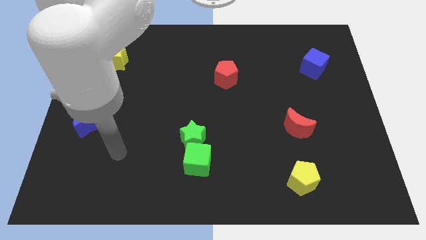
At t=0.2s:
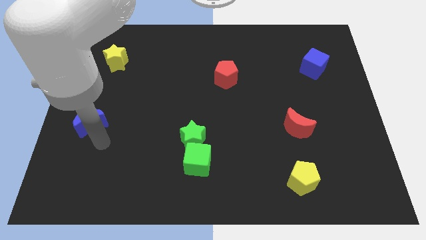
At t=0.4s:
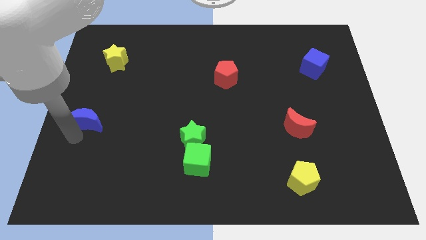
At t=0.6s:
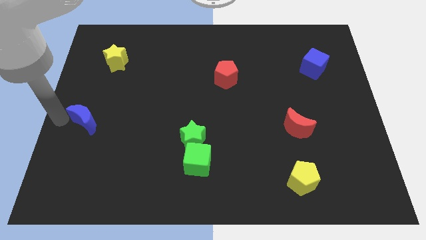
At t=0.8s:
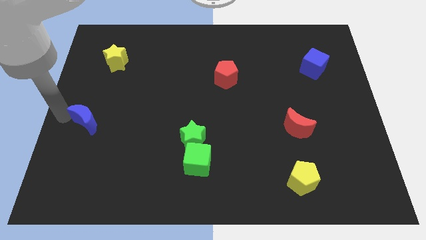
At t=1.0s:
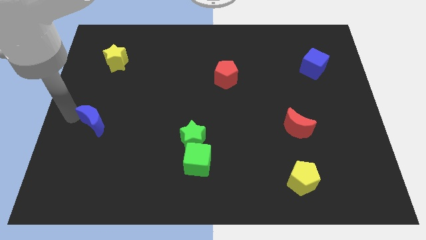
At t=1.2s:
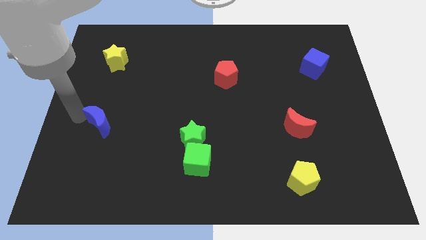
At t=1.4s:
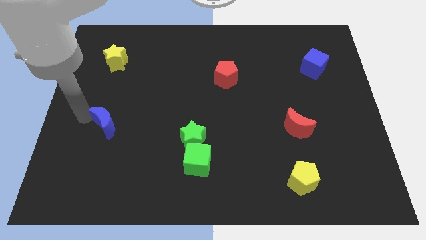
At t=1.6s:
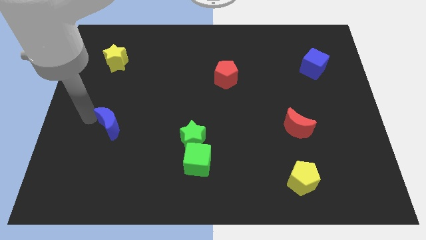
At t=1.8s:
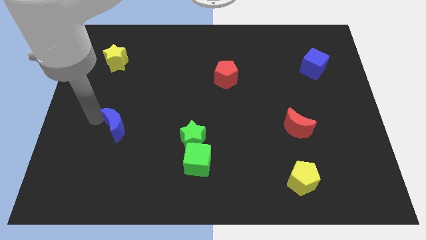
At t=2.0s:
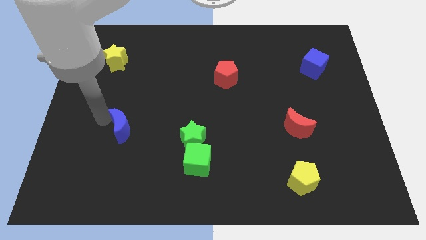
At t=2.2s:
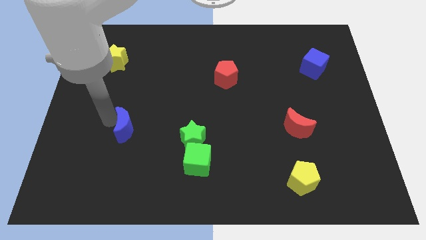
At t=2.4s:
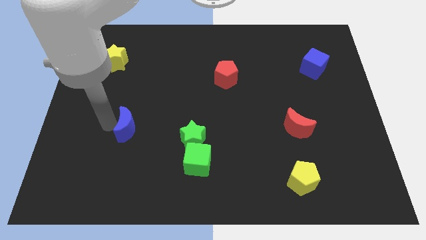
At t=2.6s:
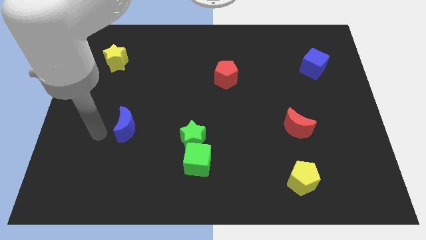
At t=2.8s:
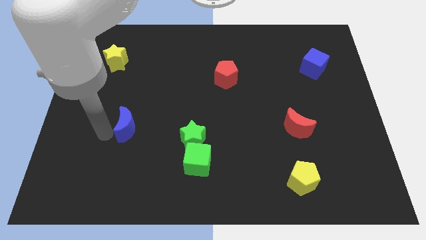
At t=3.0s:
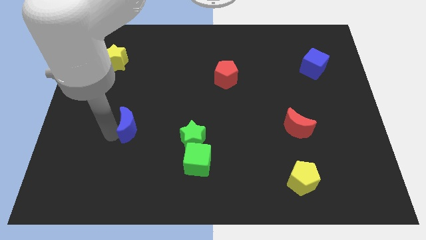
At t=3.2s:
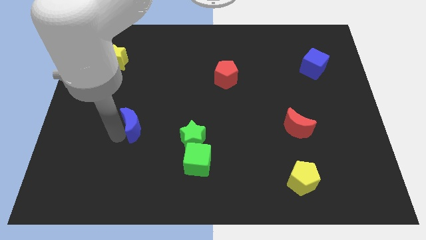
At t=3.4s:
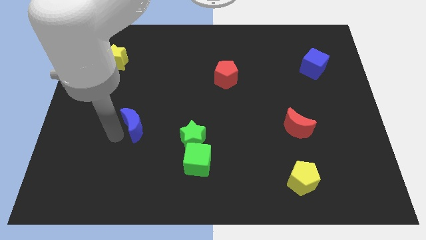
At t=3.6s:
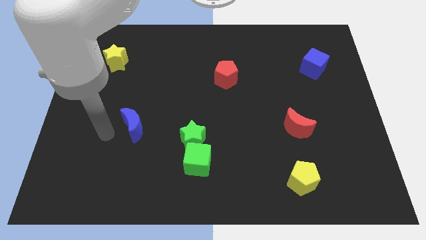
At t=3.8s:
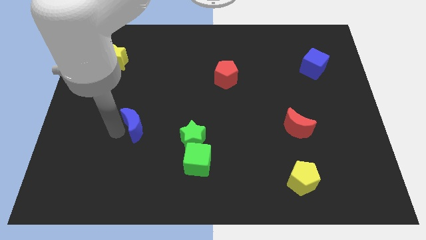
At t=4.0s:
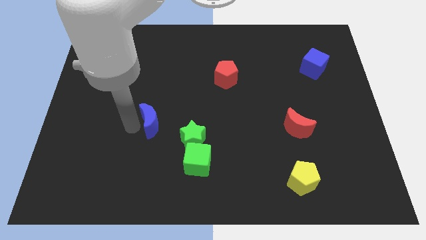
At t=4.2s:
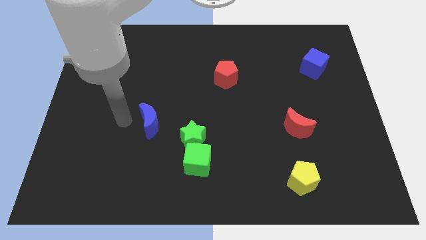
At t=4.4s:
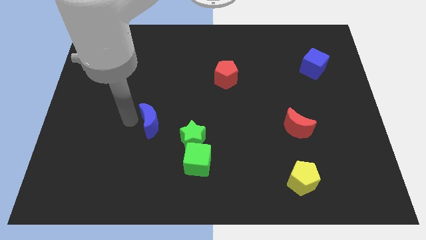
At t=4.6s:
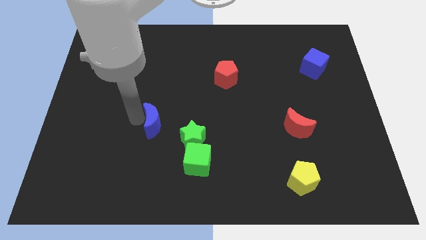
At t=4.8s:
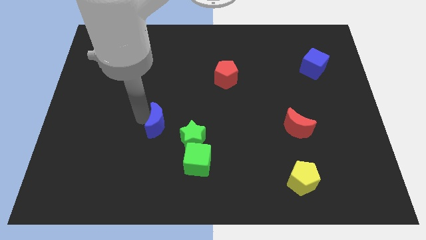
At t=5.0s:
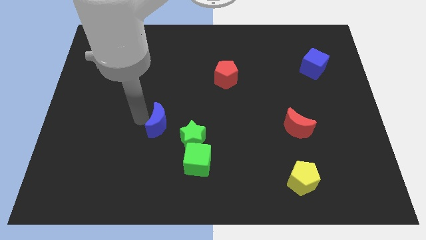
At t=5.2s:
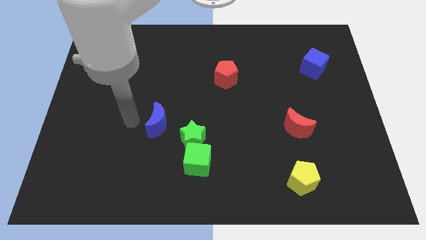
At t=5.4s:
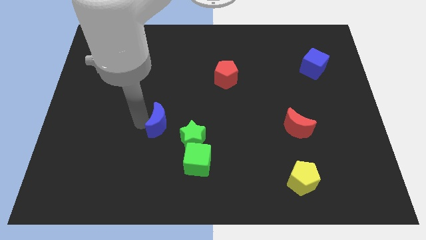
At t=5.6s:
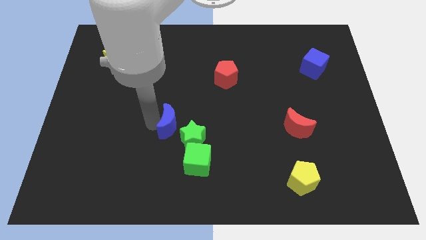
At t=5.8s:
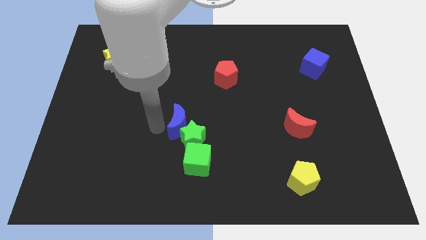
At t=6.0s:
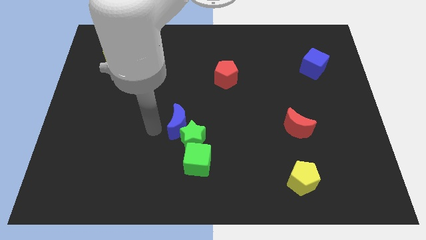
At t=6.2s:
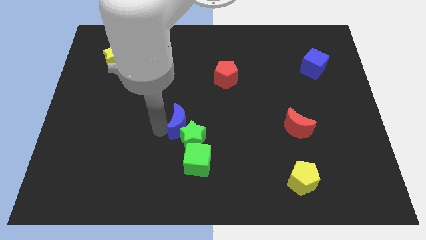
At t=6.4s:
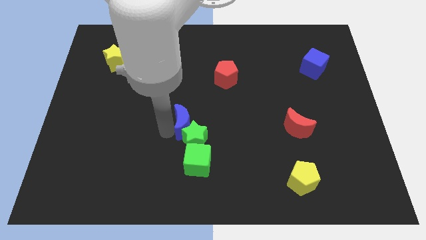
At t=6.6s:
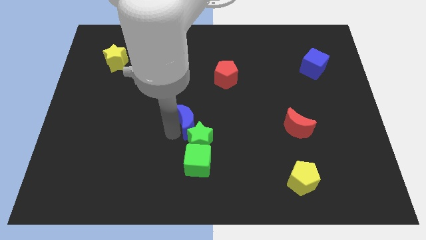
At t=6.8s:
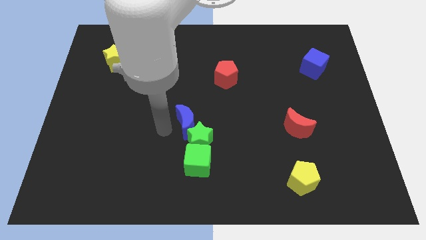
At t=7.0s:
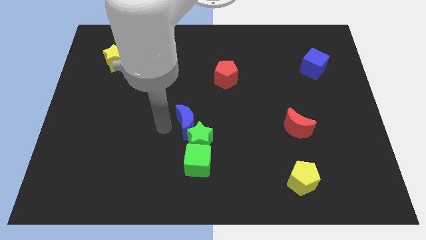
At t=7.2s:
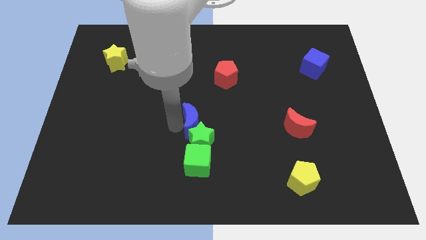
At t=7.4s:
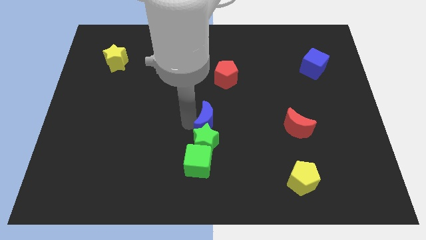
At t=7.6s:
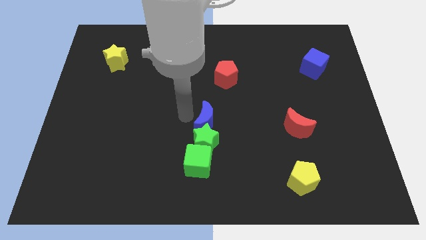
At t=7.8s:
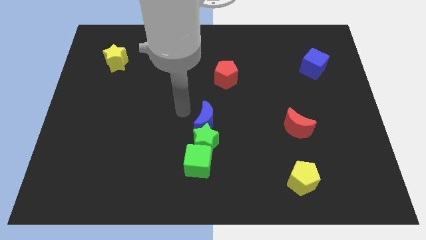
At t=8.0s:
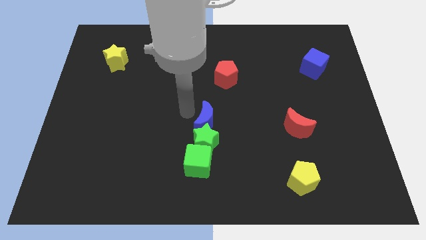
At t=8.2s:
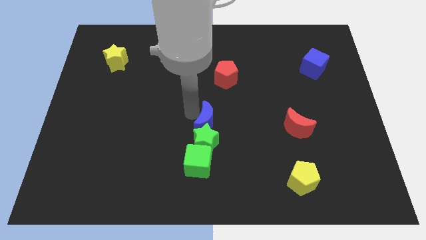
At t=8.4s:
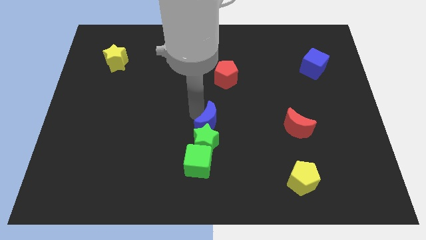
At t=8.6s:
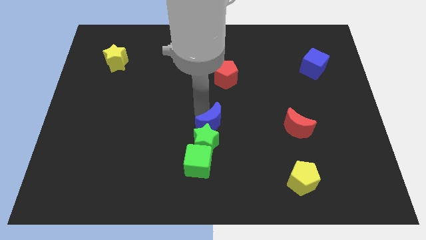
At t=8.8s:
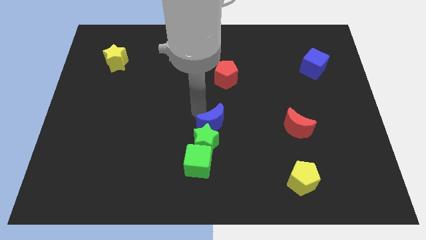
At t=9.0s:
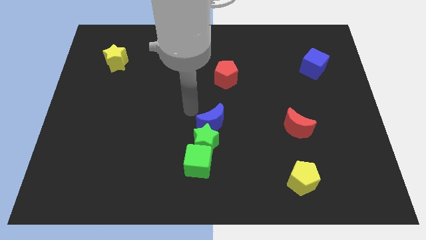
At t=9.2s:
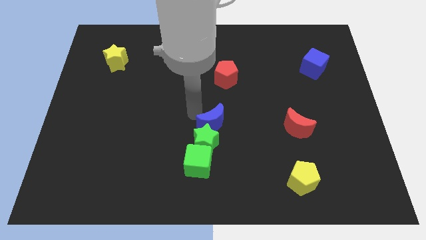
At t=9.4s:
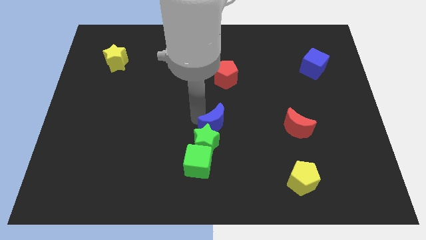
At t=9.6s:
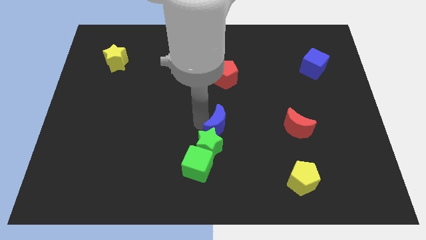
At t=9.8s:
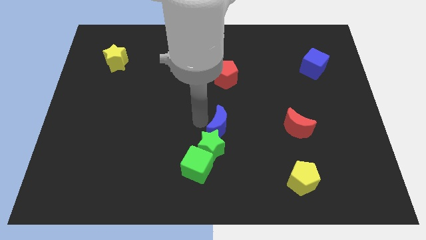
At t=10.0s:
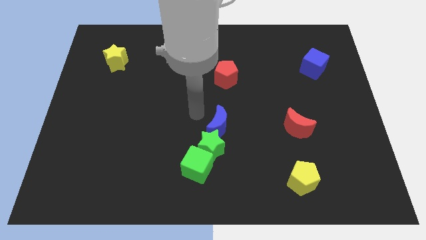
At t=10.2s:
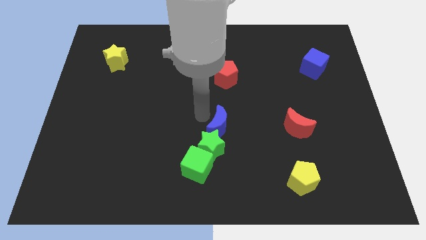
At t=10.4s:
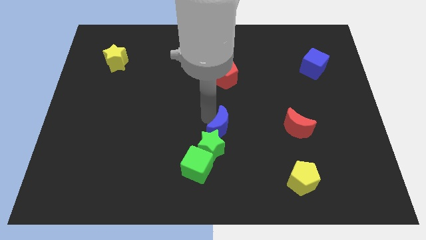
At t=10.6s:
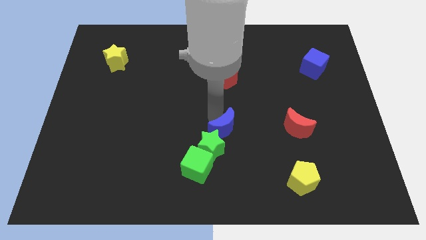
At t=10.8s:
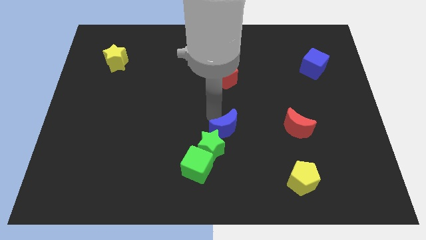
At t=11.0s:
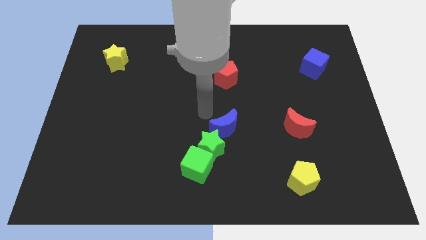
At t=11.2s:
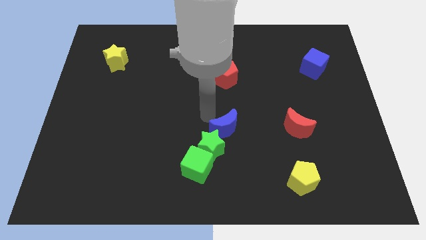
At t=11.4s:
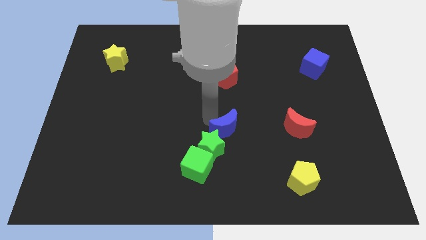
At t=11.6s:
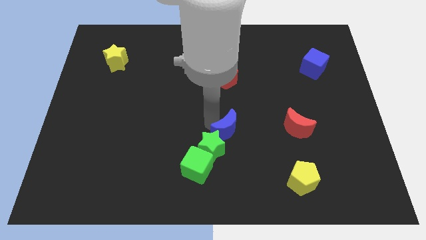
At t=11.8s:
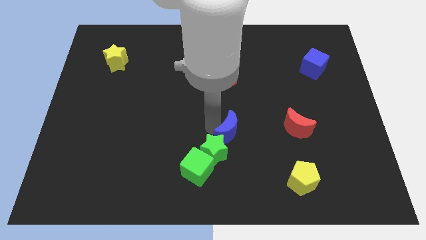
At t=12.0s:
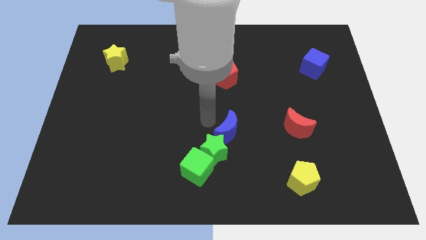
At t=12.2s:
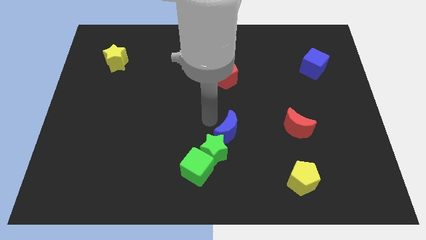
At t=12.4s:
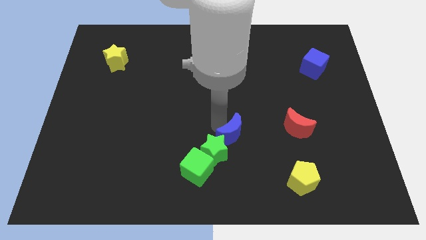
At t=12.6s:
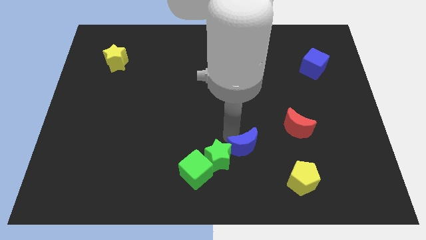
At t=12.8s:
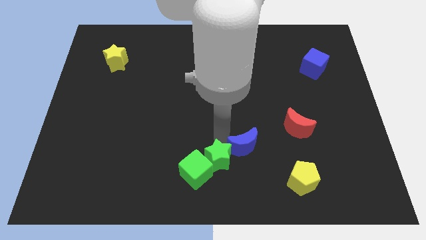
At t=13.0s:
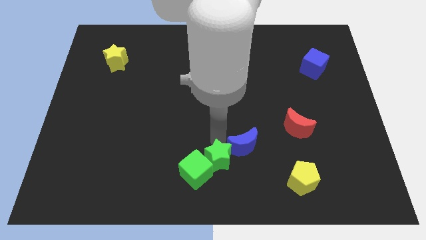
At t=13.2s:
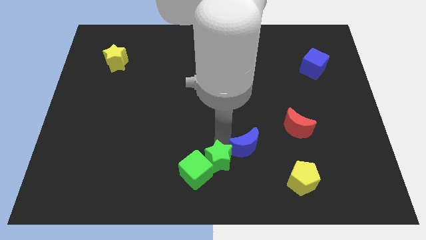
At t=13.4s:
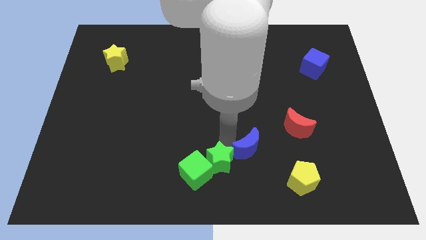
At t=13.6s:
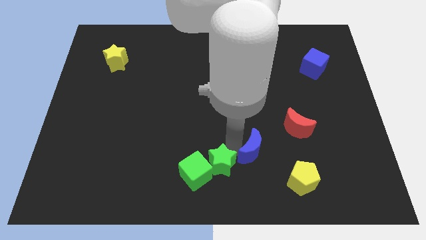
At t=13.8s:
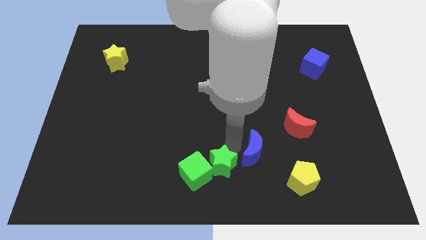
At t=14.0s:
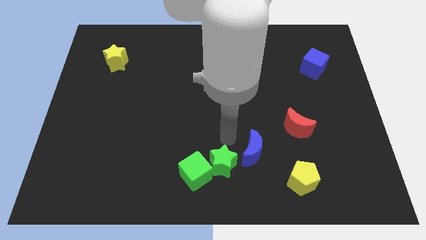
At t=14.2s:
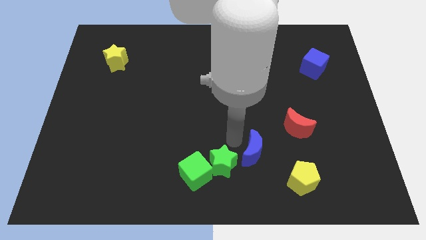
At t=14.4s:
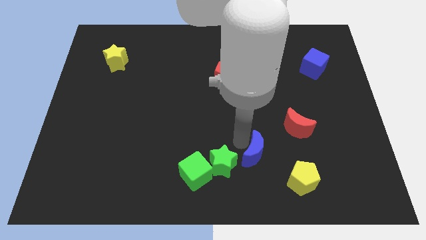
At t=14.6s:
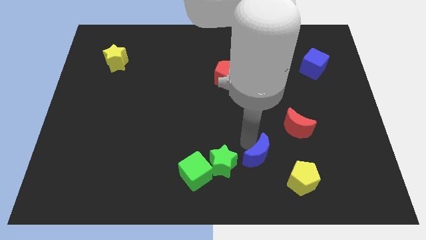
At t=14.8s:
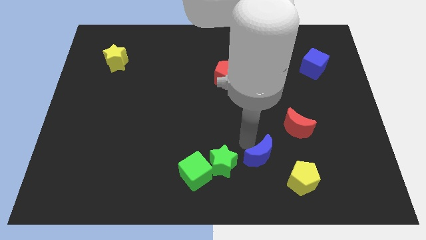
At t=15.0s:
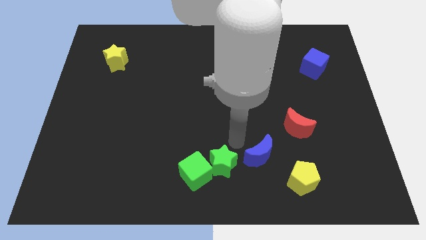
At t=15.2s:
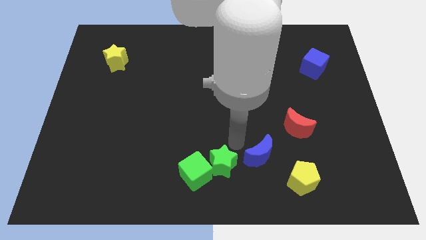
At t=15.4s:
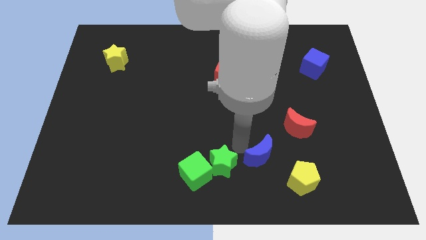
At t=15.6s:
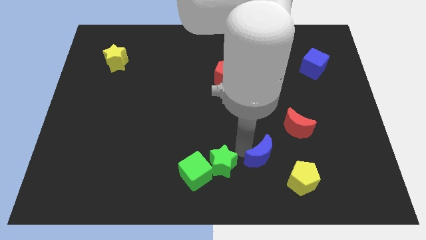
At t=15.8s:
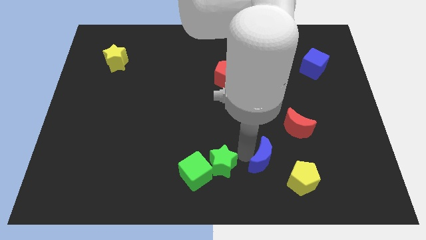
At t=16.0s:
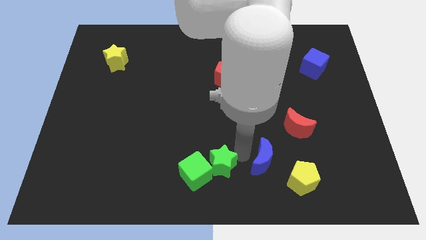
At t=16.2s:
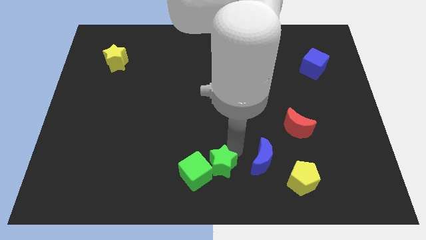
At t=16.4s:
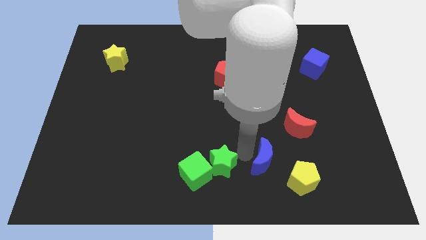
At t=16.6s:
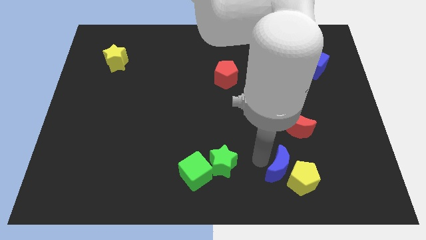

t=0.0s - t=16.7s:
push the blue moon towards the yellow pentagon
